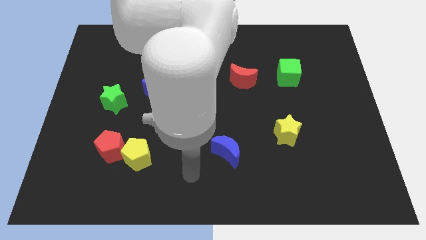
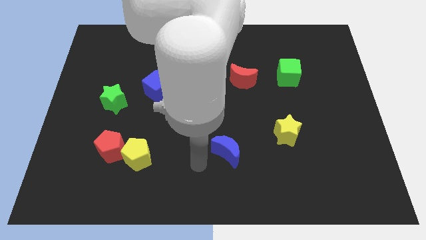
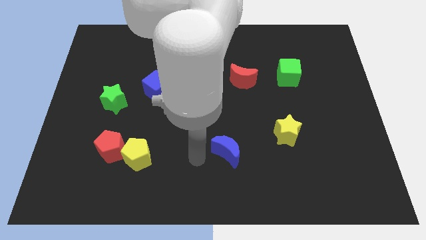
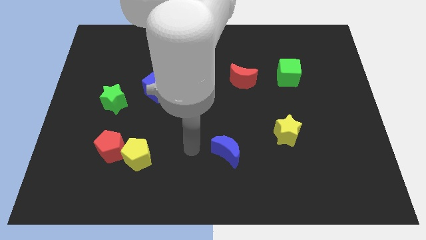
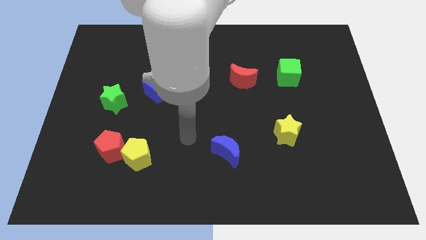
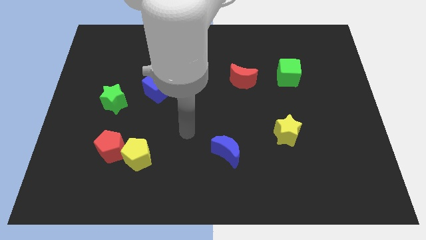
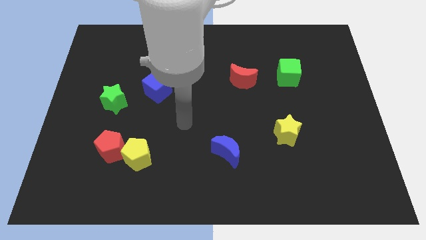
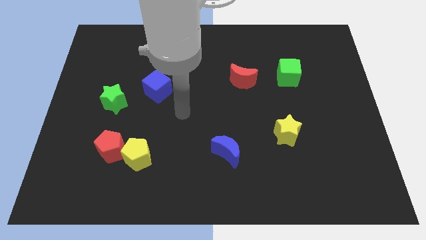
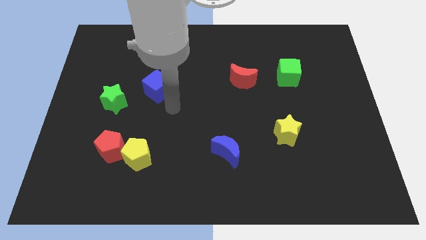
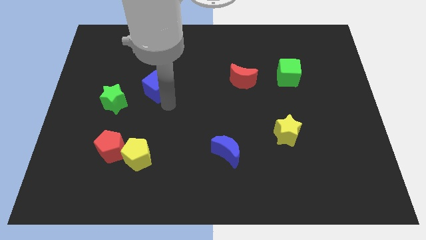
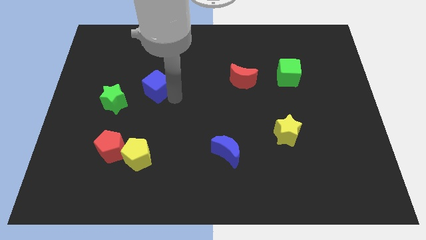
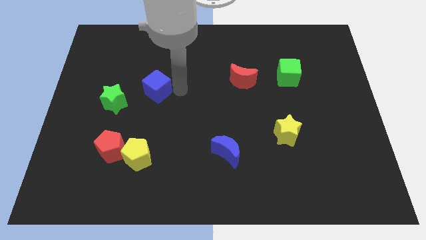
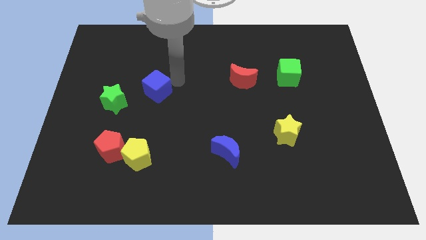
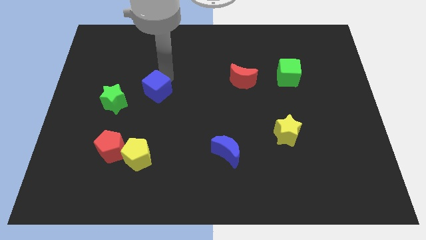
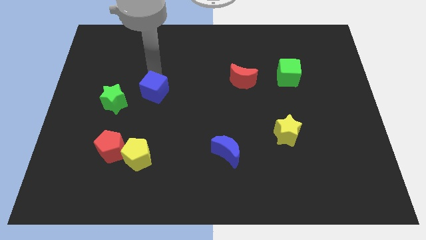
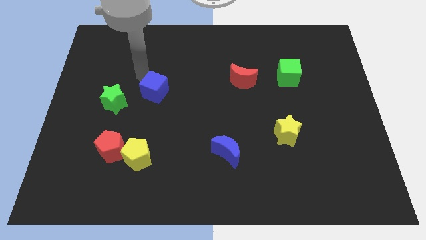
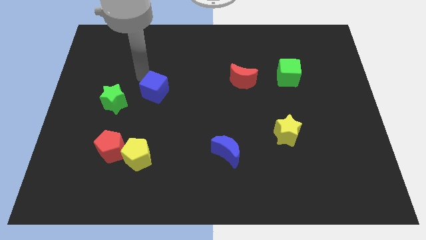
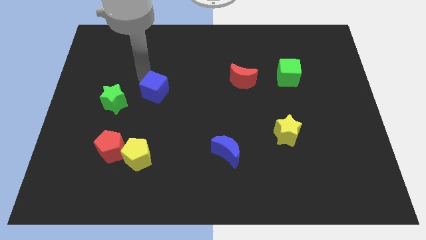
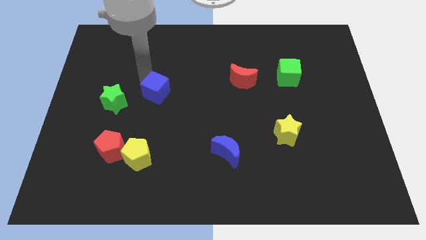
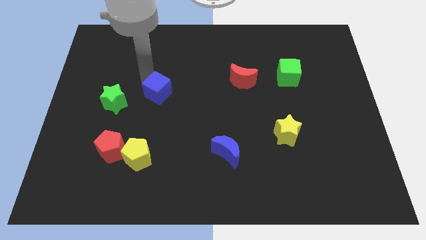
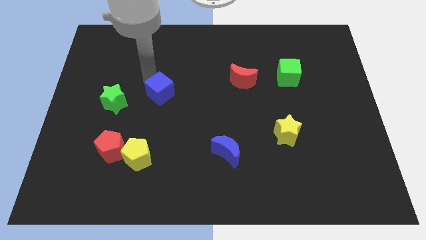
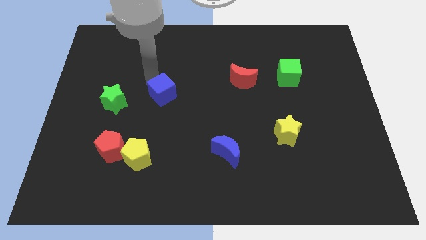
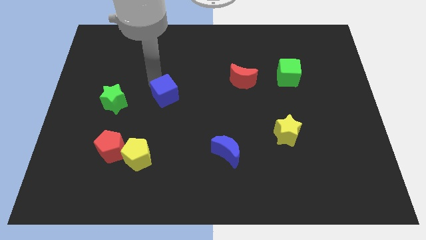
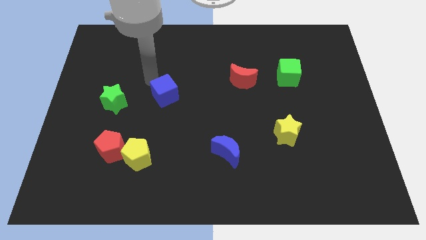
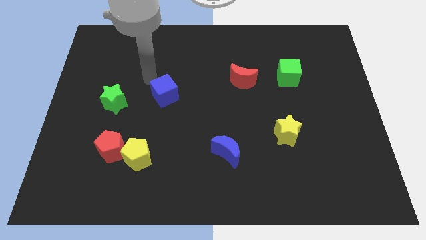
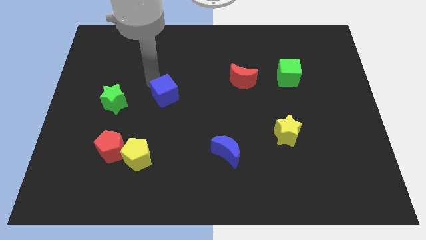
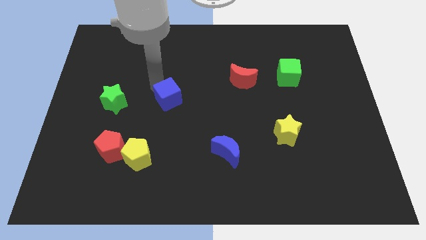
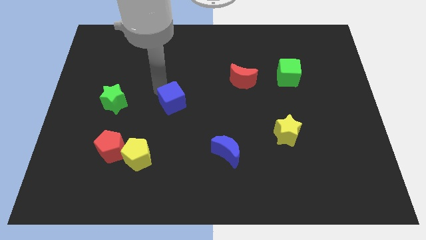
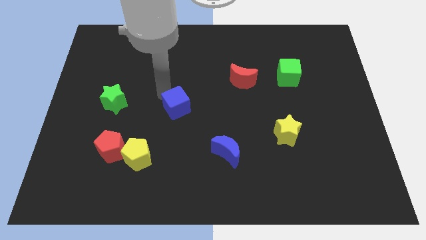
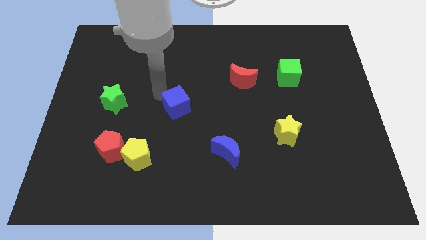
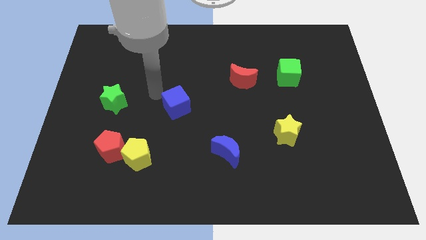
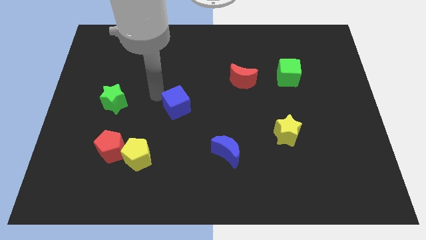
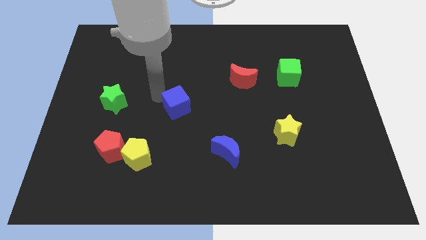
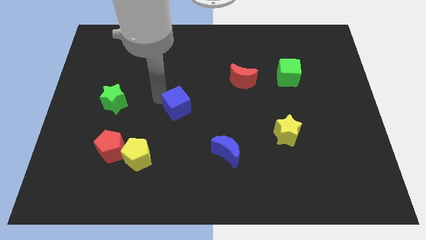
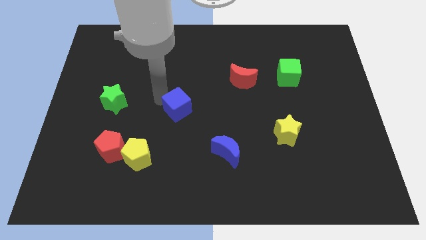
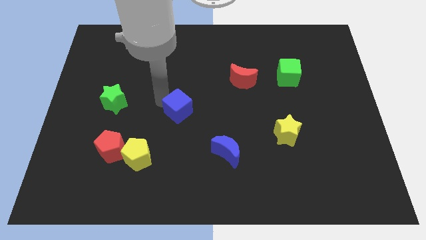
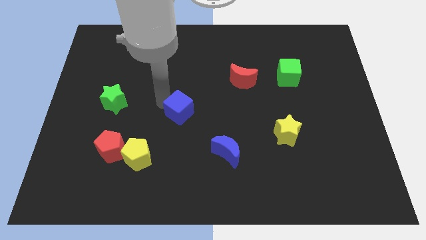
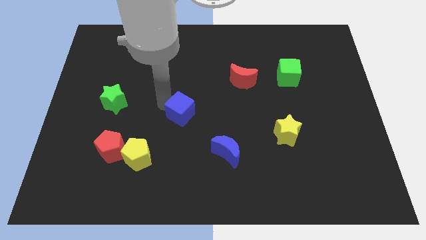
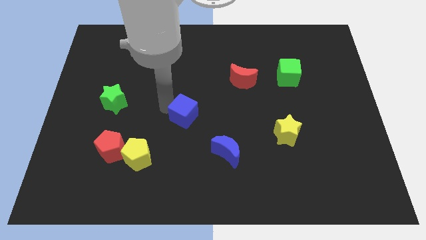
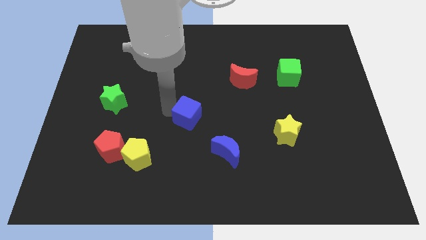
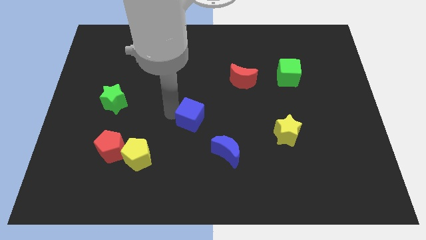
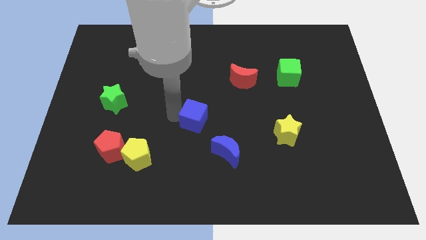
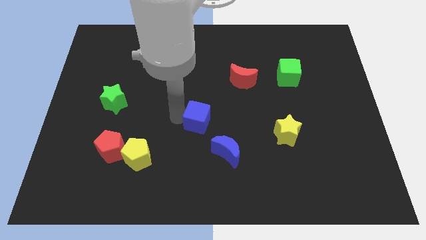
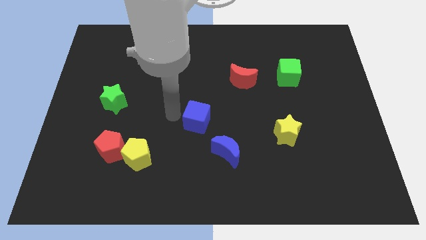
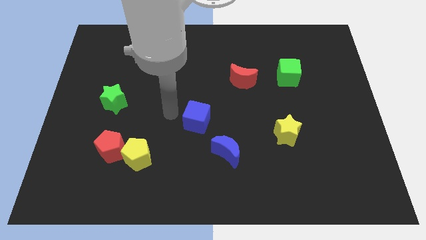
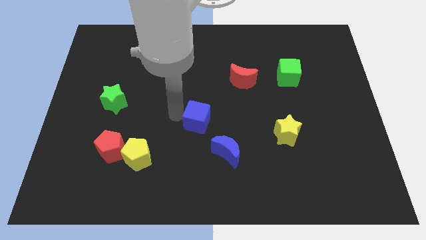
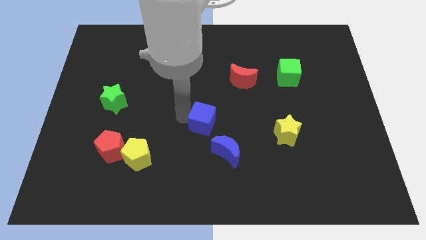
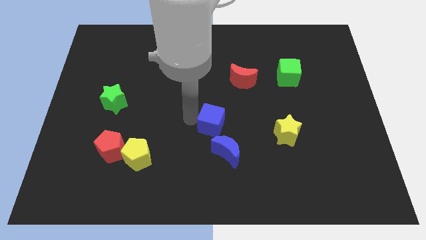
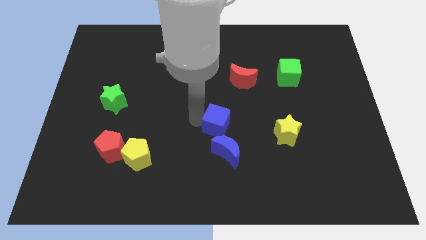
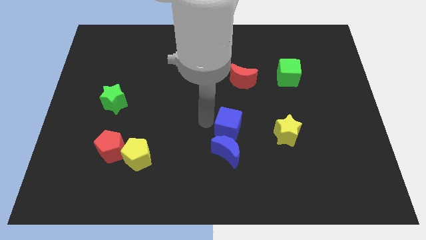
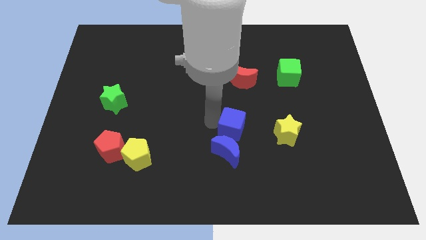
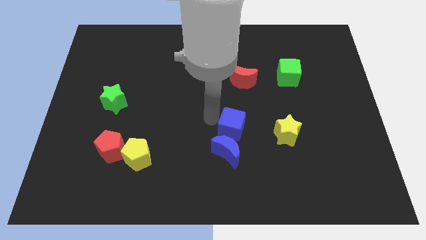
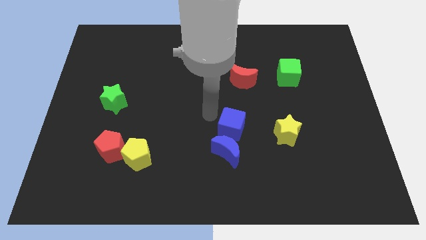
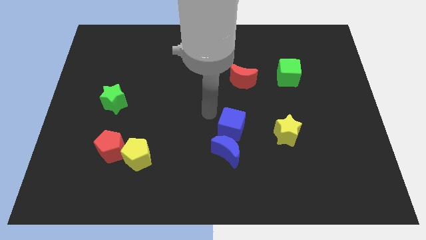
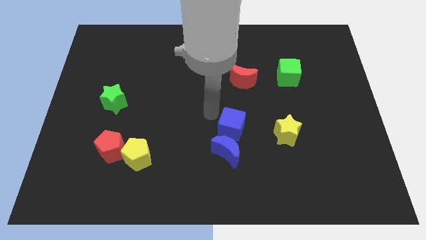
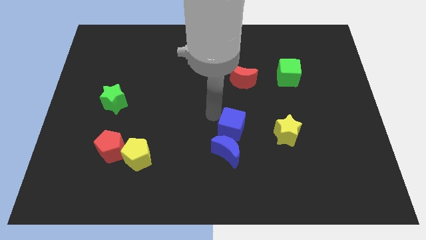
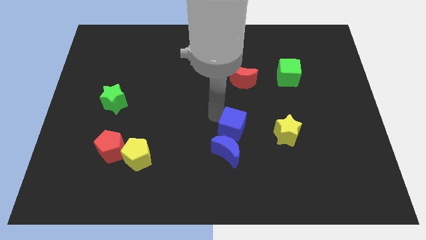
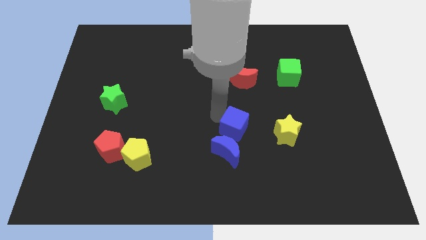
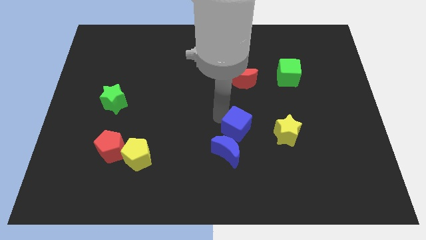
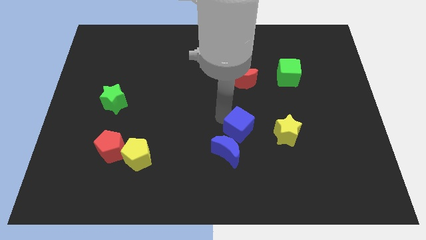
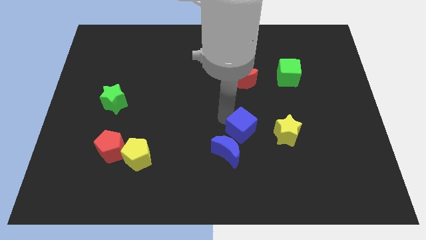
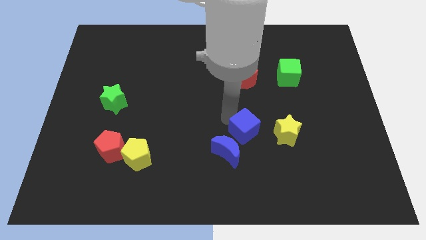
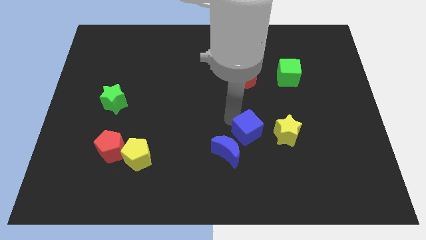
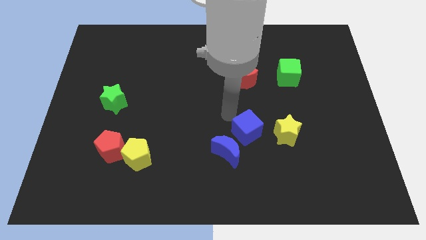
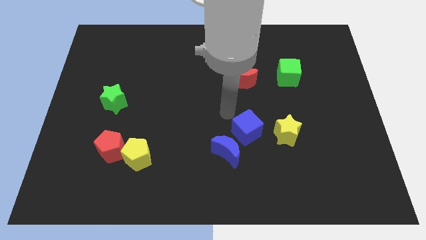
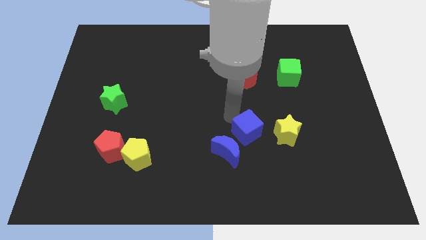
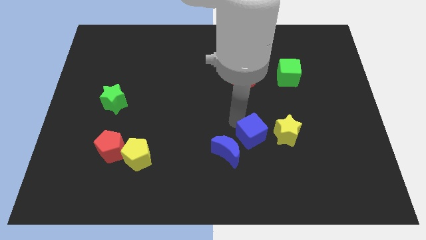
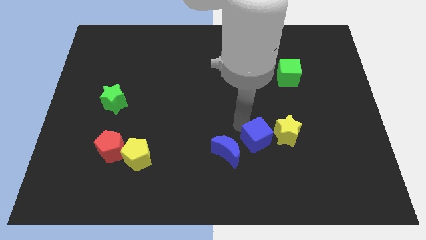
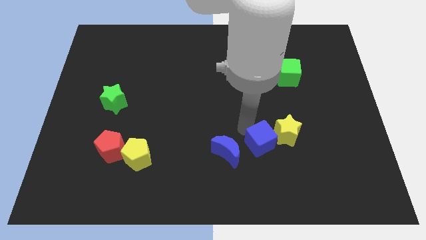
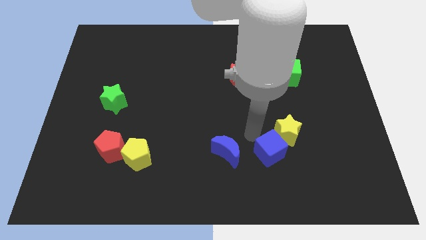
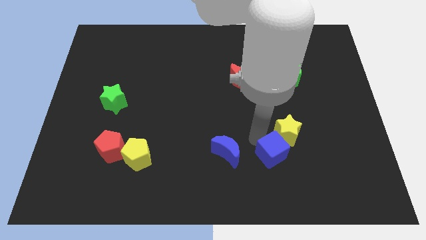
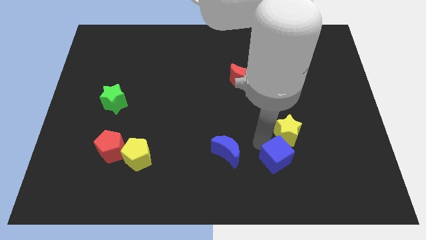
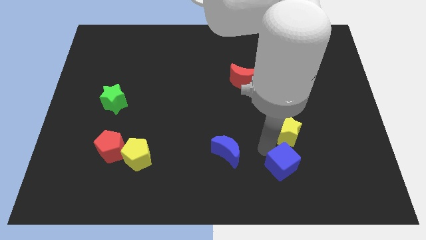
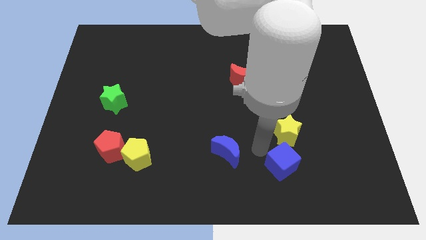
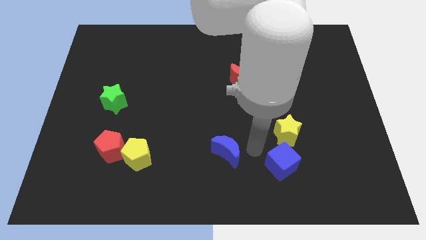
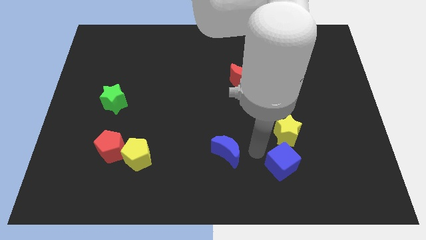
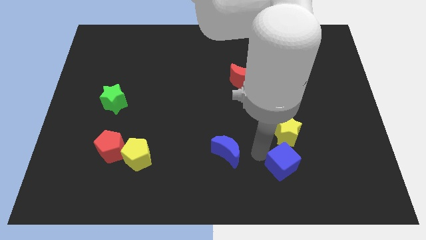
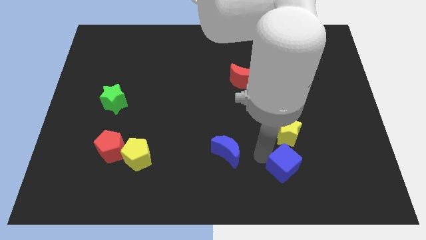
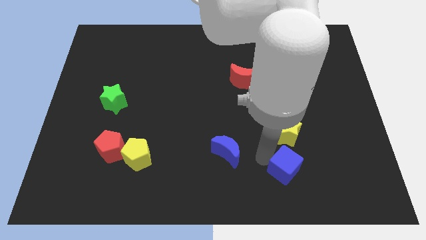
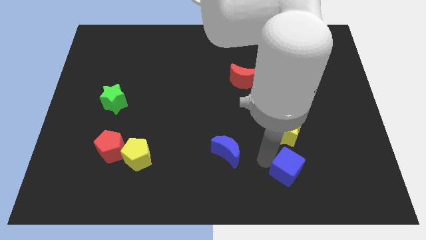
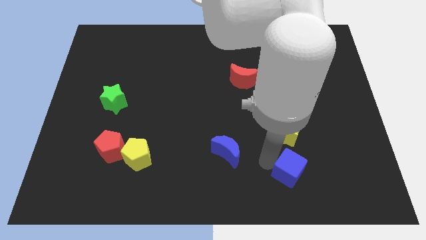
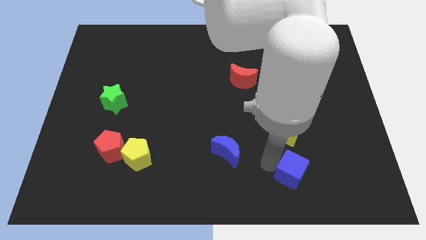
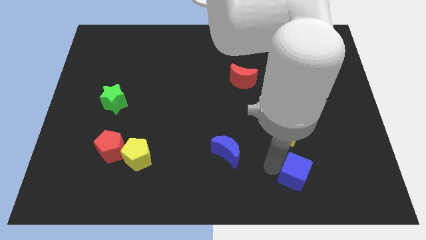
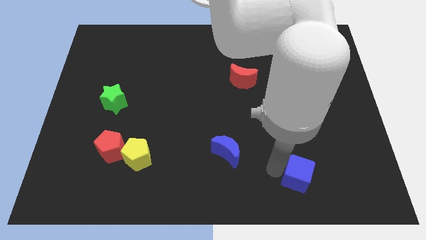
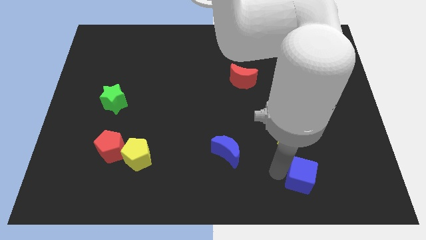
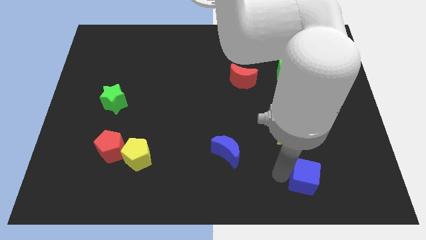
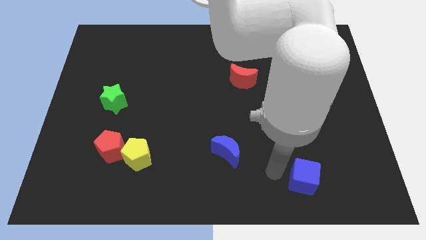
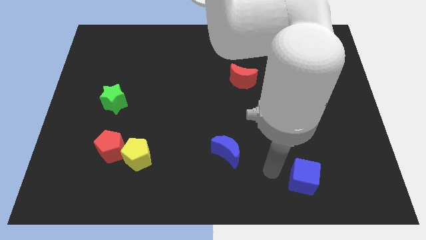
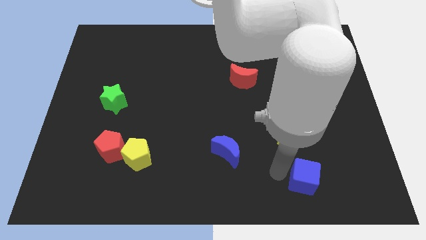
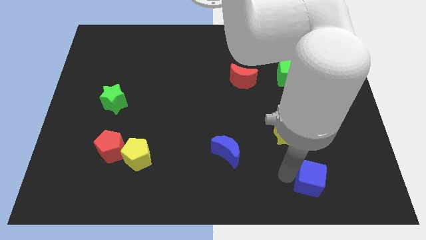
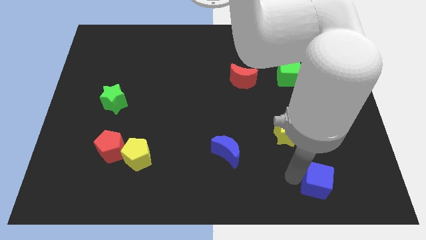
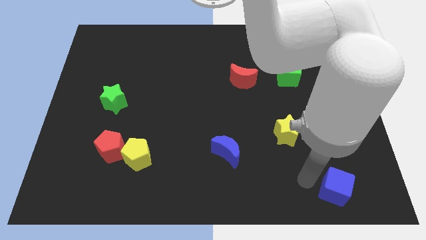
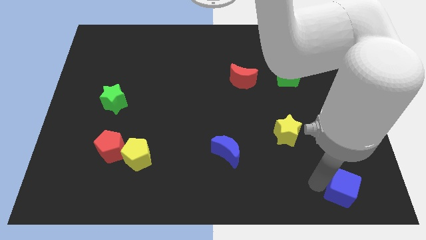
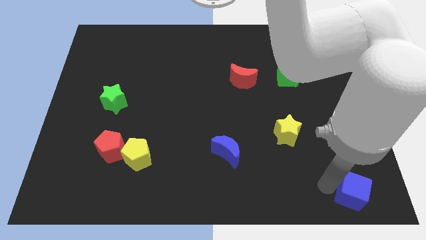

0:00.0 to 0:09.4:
slide the blue cube to the bottom right
